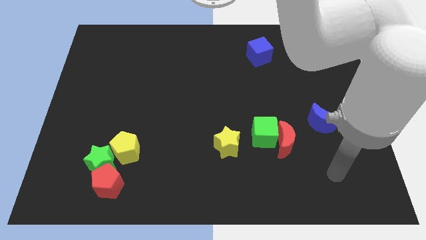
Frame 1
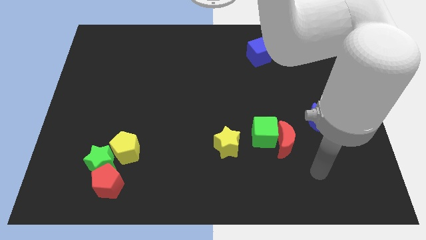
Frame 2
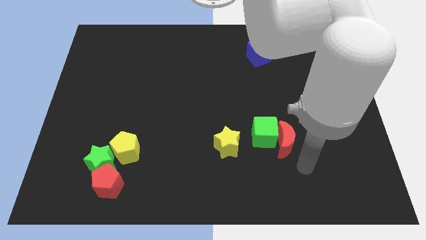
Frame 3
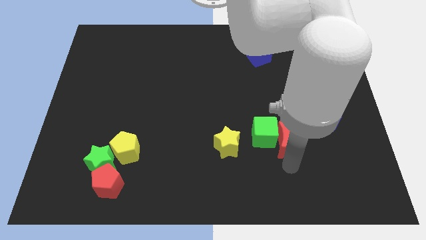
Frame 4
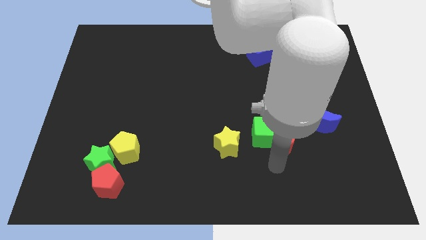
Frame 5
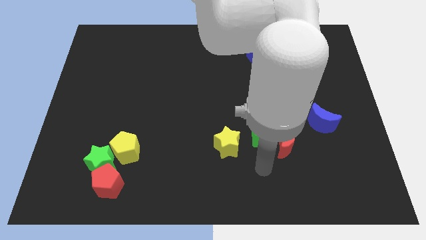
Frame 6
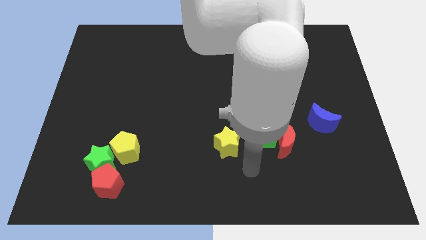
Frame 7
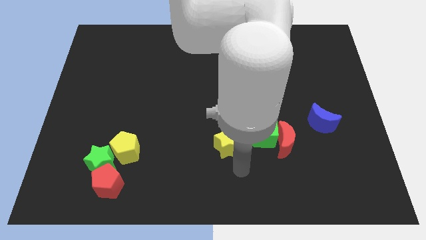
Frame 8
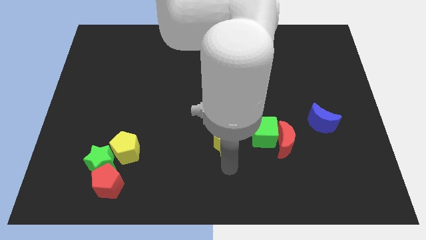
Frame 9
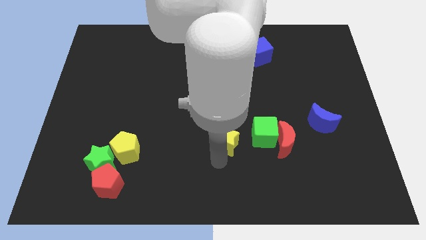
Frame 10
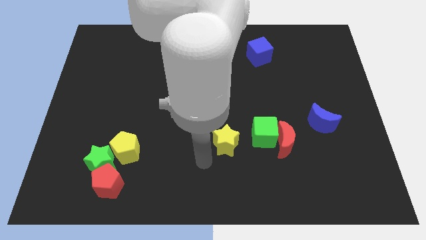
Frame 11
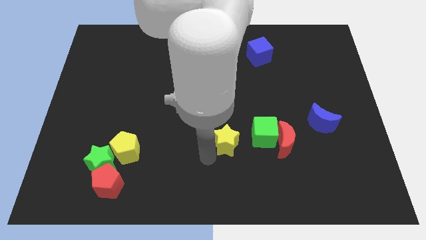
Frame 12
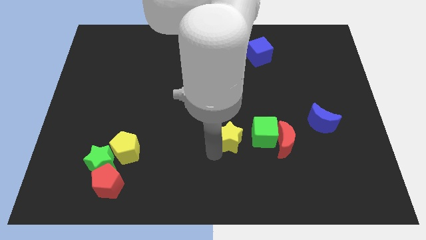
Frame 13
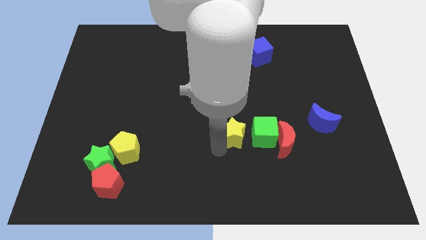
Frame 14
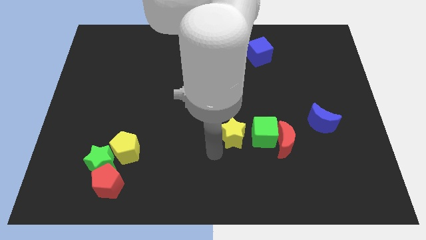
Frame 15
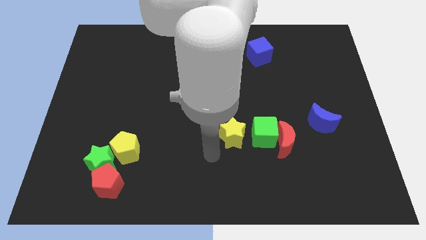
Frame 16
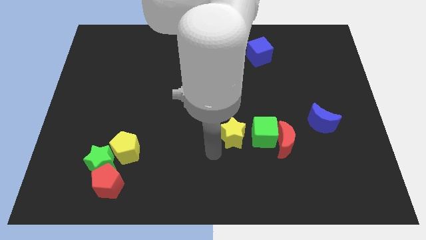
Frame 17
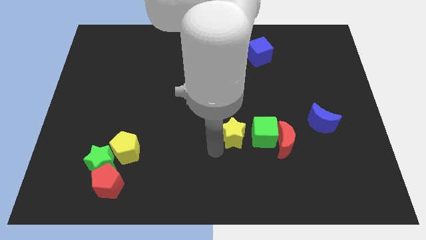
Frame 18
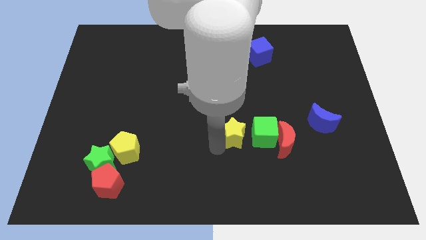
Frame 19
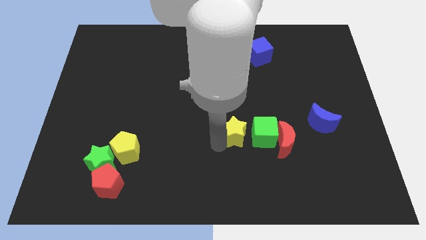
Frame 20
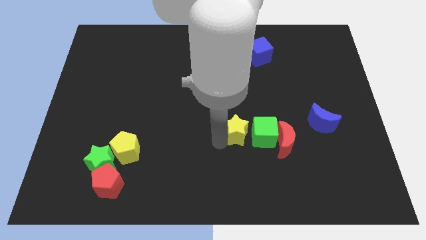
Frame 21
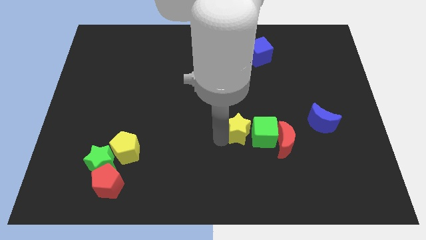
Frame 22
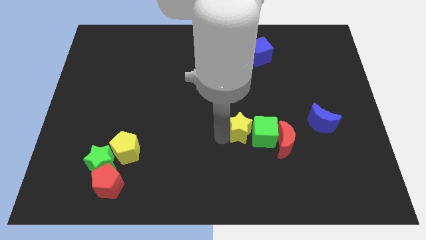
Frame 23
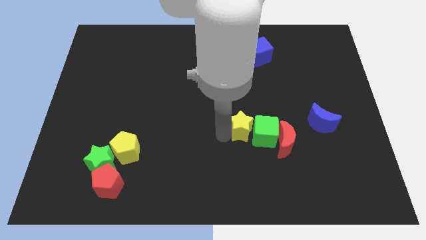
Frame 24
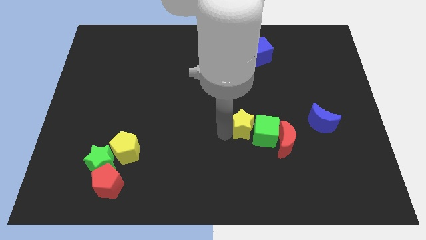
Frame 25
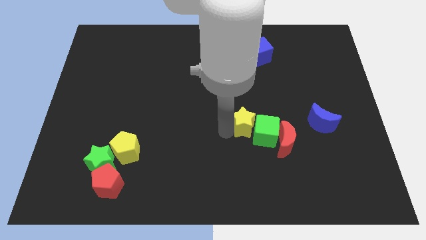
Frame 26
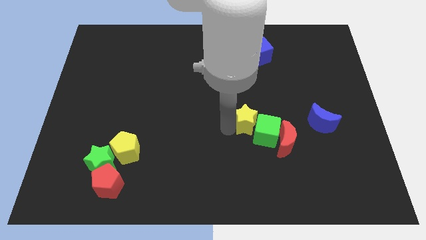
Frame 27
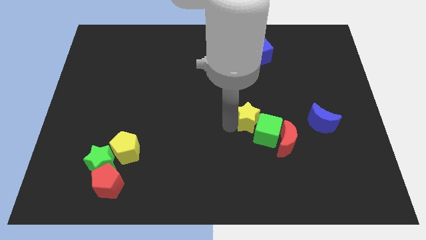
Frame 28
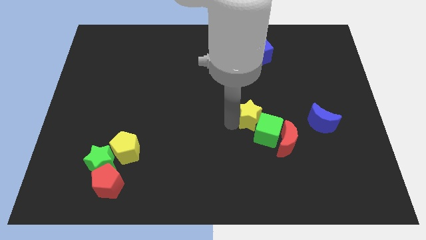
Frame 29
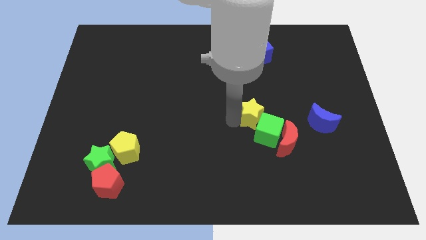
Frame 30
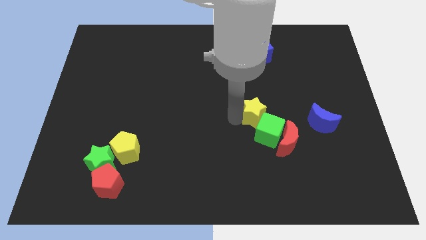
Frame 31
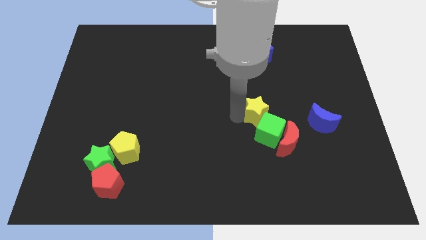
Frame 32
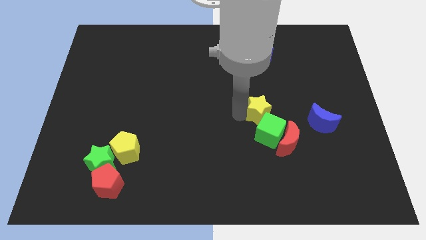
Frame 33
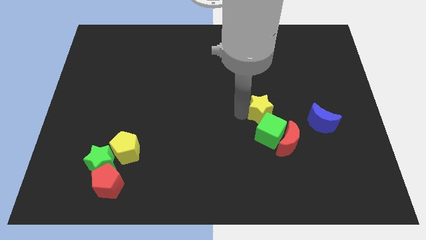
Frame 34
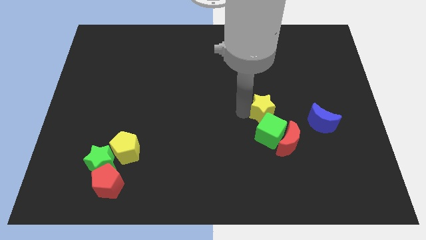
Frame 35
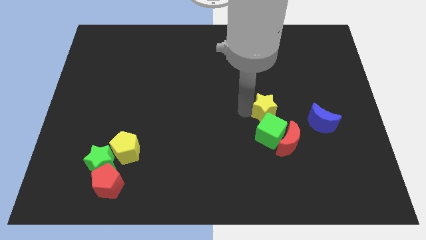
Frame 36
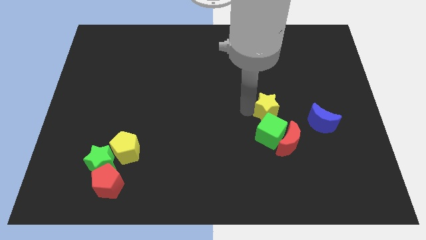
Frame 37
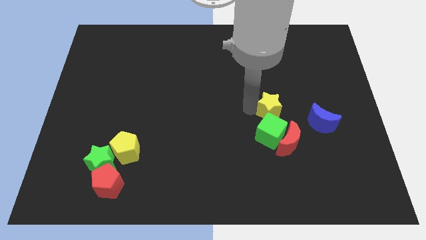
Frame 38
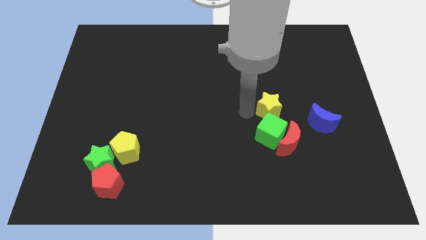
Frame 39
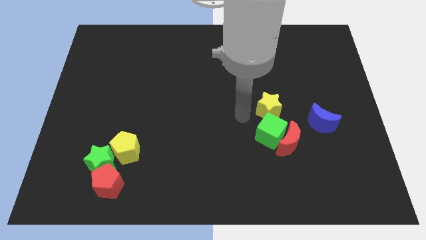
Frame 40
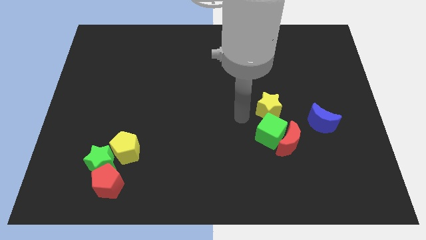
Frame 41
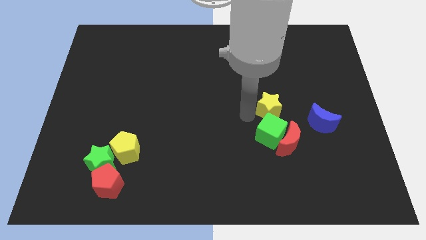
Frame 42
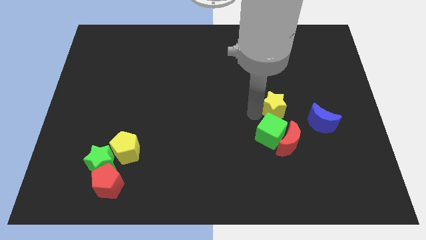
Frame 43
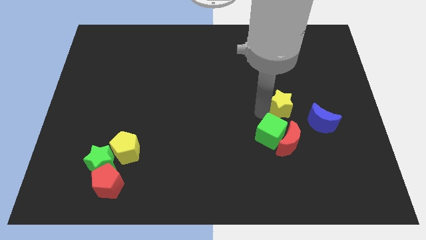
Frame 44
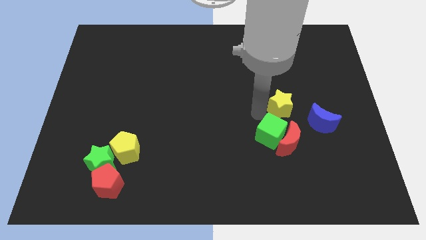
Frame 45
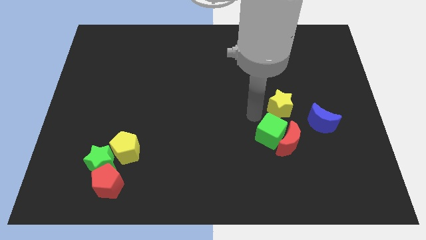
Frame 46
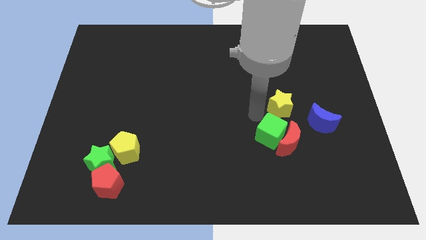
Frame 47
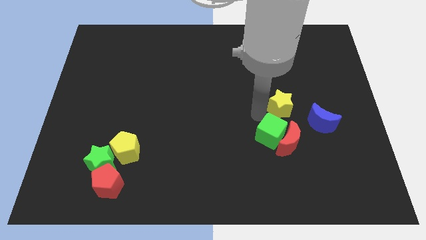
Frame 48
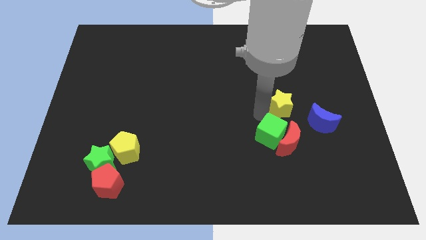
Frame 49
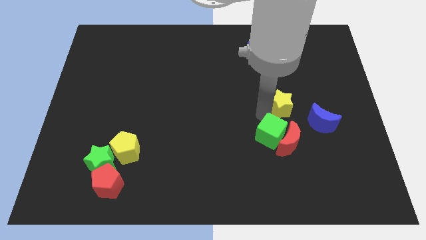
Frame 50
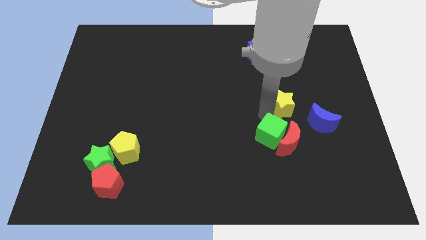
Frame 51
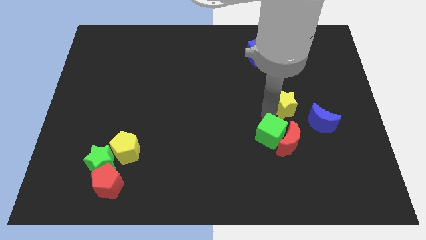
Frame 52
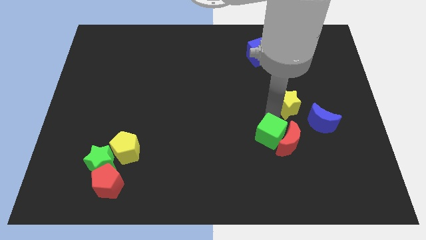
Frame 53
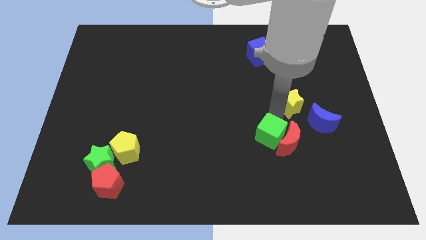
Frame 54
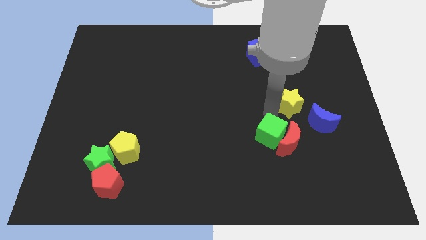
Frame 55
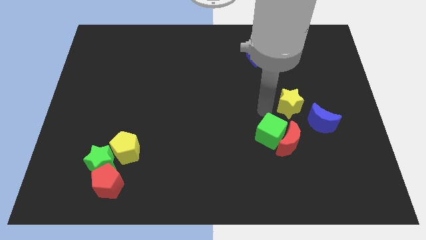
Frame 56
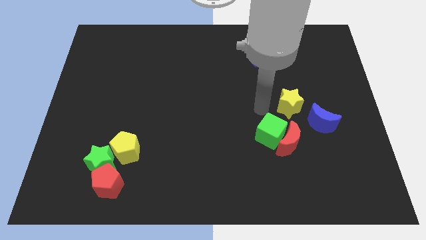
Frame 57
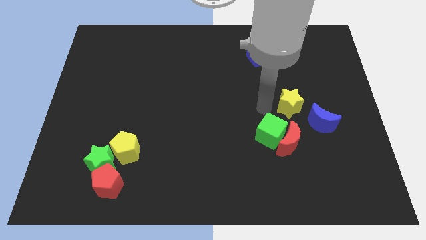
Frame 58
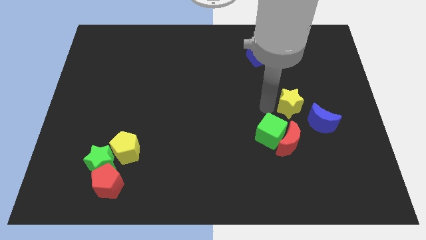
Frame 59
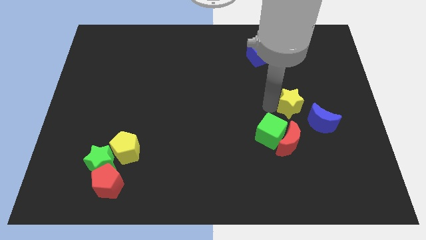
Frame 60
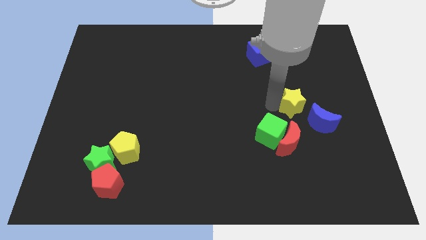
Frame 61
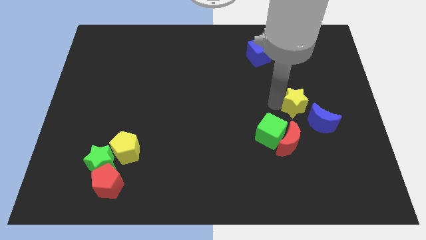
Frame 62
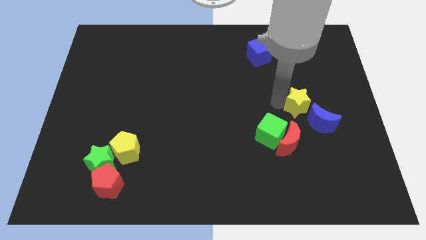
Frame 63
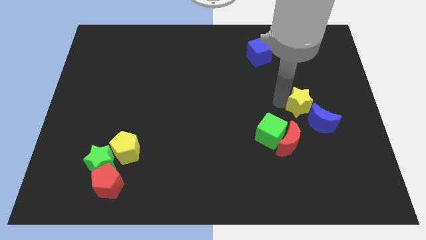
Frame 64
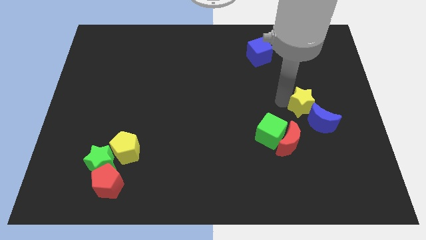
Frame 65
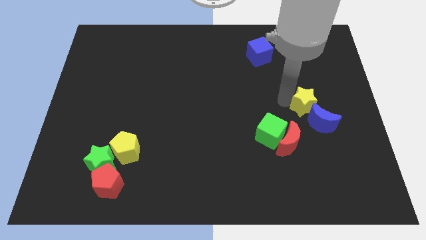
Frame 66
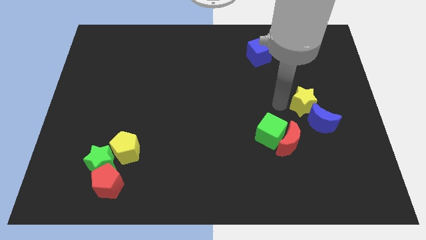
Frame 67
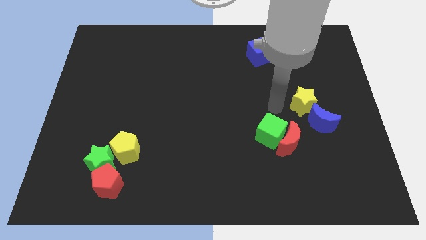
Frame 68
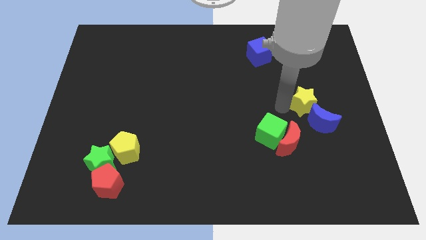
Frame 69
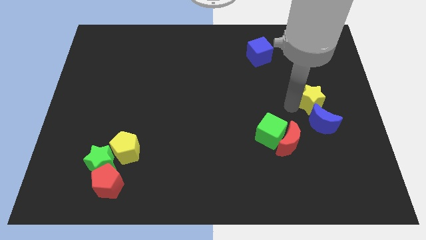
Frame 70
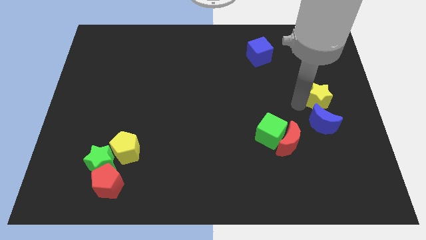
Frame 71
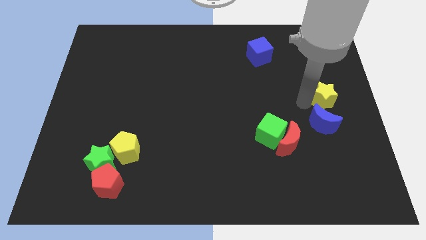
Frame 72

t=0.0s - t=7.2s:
slide the yellow star to the right side of the board
